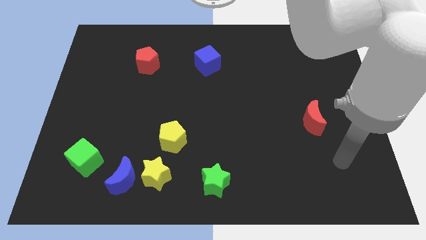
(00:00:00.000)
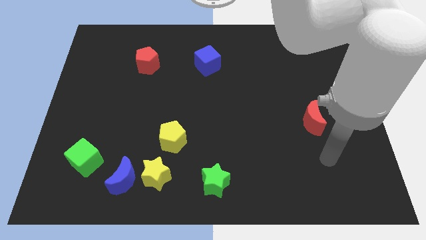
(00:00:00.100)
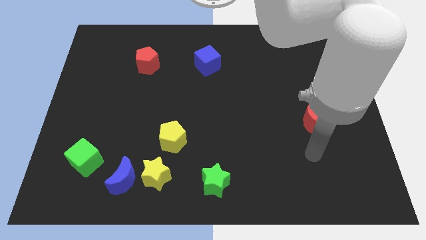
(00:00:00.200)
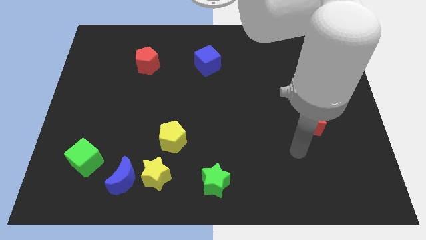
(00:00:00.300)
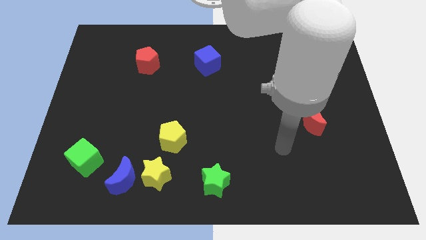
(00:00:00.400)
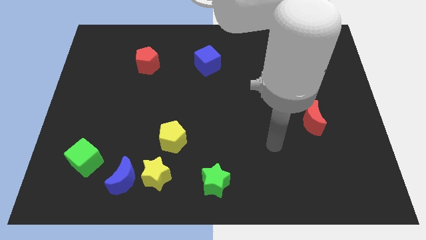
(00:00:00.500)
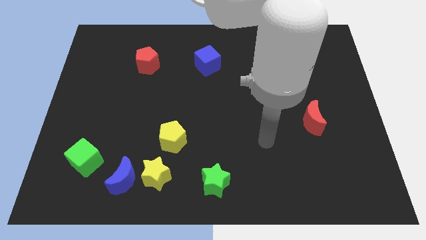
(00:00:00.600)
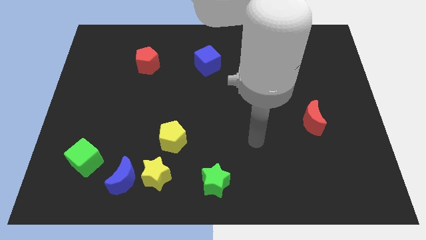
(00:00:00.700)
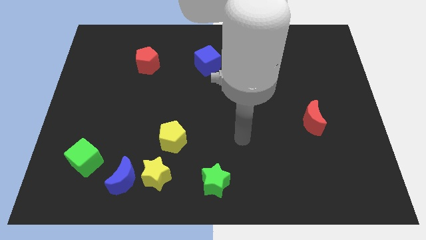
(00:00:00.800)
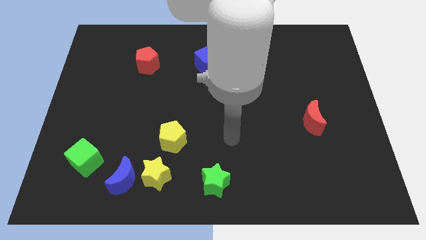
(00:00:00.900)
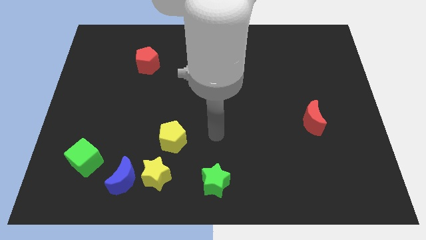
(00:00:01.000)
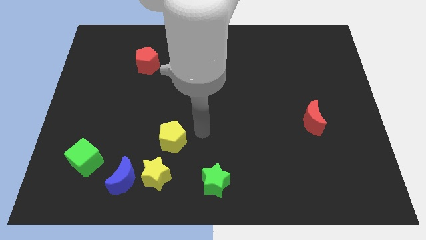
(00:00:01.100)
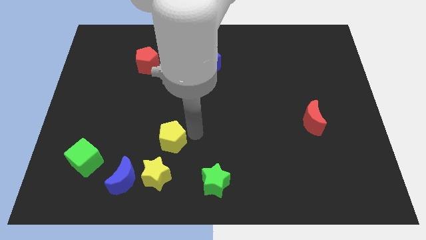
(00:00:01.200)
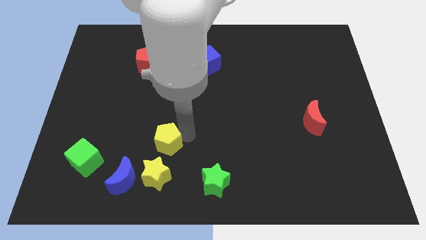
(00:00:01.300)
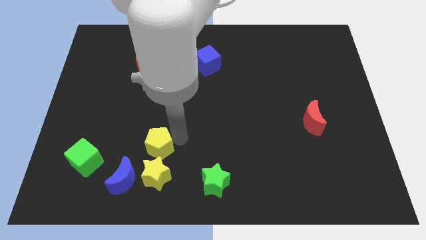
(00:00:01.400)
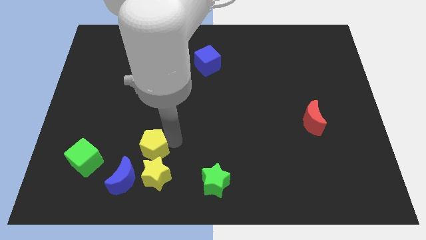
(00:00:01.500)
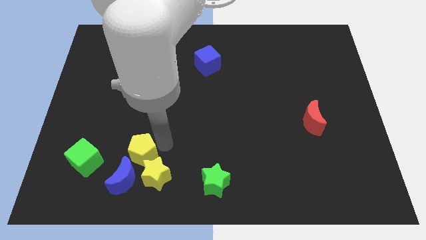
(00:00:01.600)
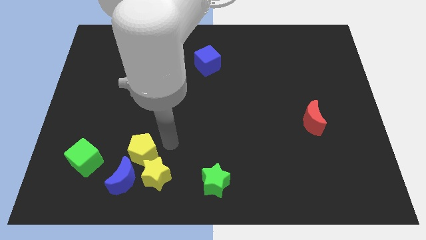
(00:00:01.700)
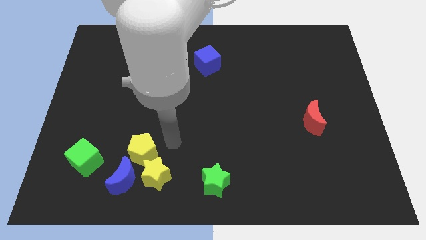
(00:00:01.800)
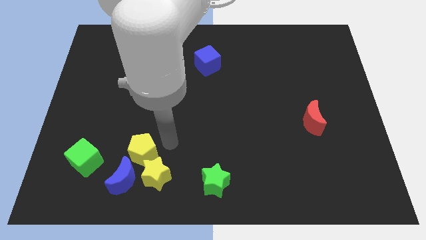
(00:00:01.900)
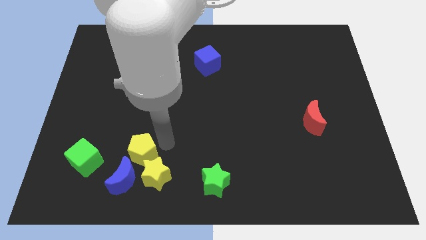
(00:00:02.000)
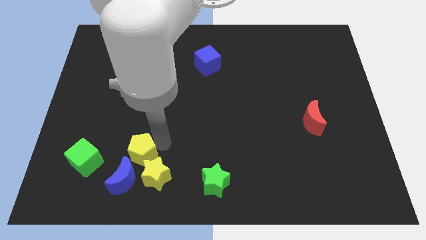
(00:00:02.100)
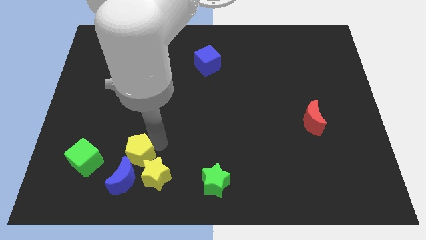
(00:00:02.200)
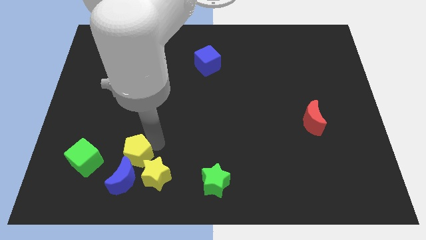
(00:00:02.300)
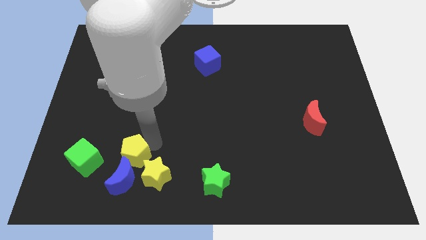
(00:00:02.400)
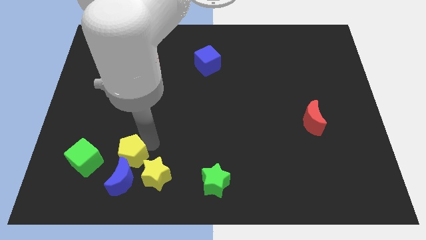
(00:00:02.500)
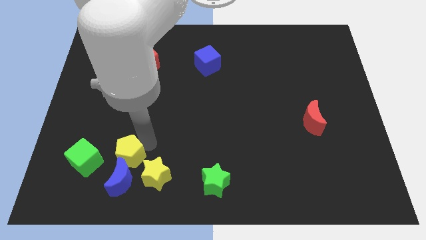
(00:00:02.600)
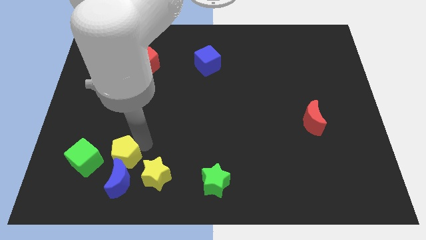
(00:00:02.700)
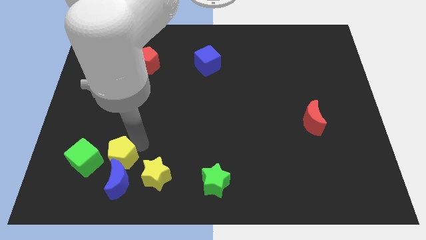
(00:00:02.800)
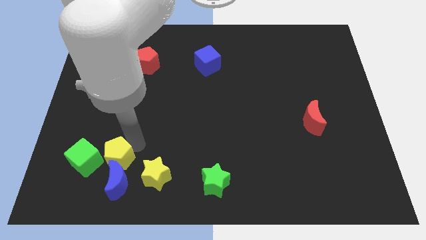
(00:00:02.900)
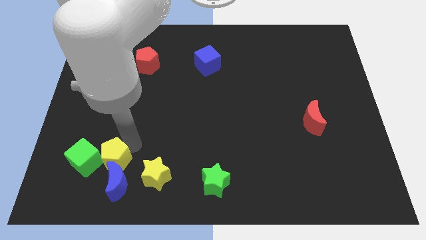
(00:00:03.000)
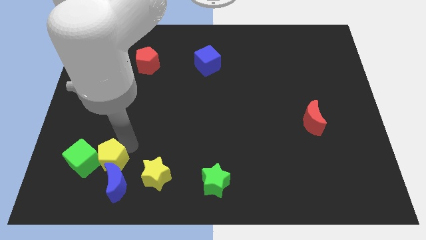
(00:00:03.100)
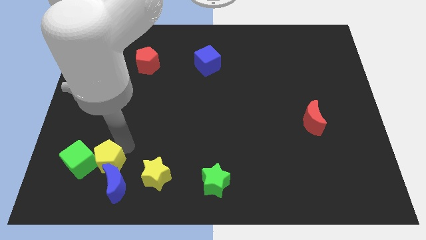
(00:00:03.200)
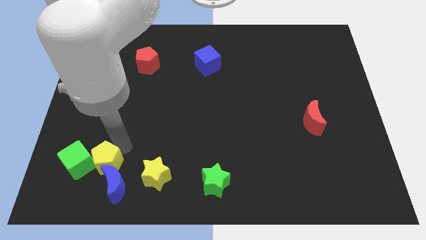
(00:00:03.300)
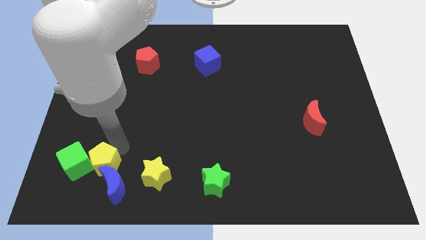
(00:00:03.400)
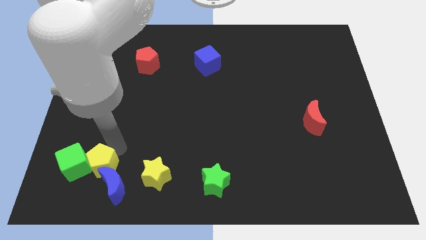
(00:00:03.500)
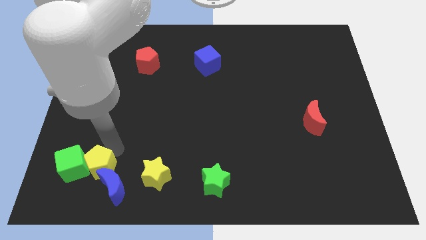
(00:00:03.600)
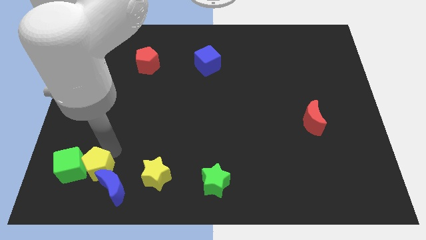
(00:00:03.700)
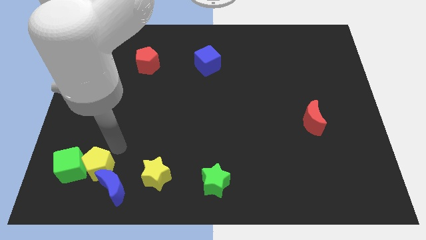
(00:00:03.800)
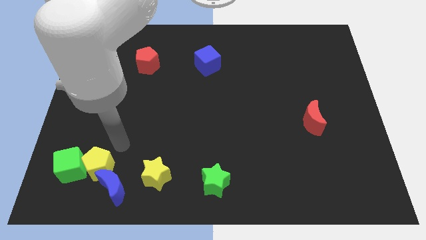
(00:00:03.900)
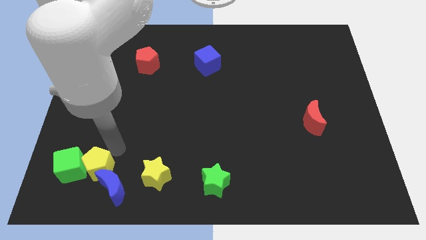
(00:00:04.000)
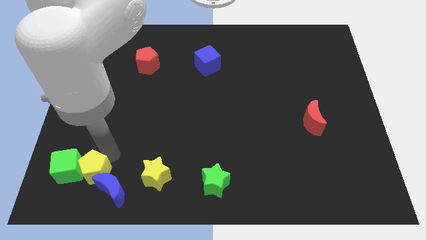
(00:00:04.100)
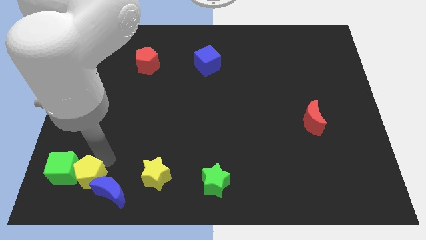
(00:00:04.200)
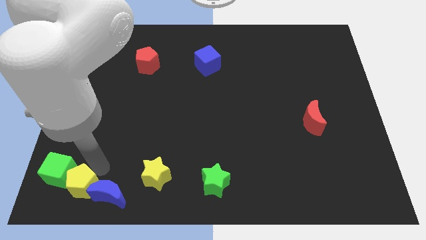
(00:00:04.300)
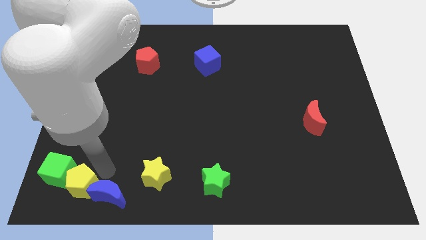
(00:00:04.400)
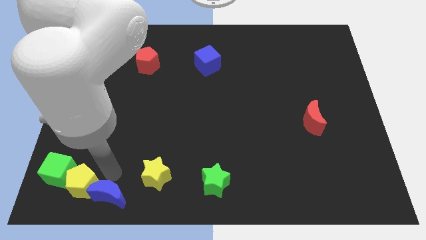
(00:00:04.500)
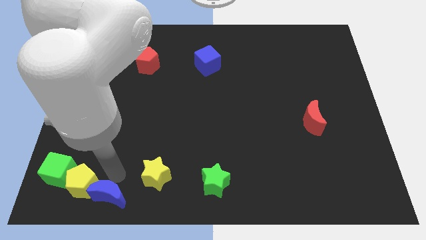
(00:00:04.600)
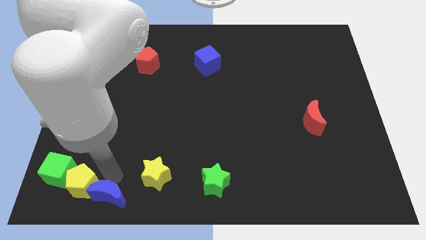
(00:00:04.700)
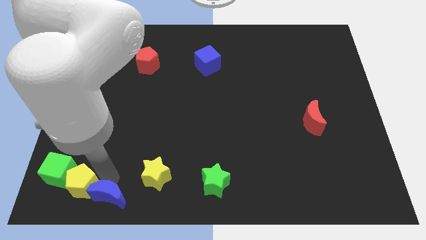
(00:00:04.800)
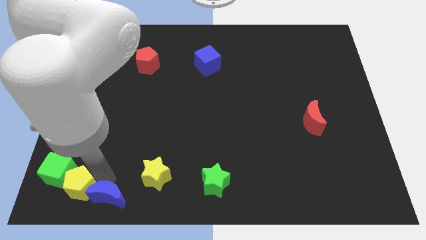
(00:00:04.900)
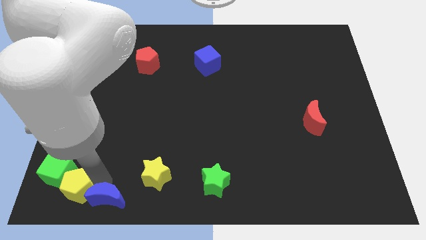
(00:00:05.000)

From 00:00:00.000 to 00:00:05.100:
push the yellow pentagon to the lower left corner

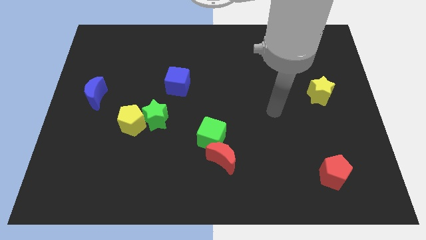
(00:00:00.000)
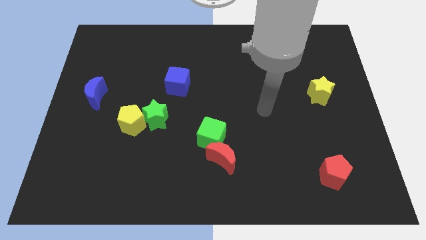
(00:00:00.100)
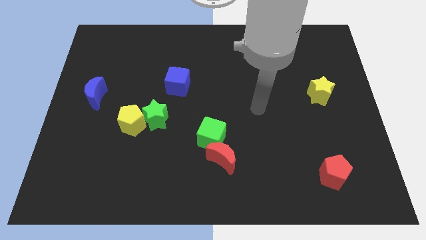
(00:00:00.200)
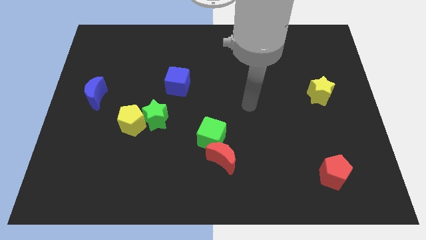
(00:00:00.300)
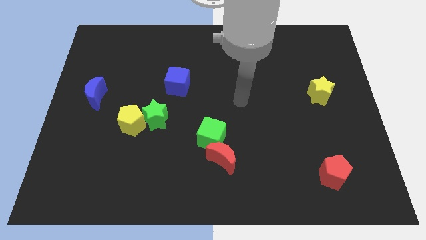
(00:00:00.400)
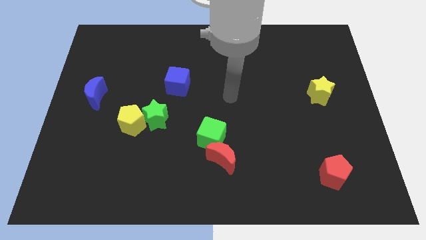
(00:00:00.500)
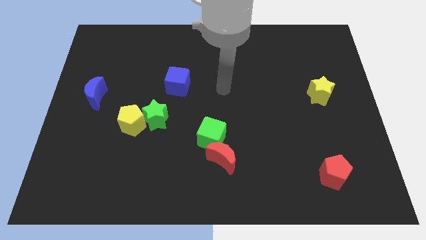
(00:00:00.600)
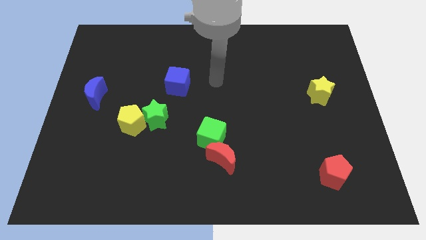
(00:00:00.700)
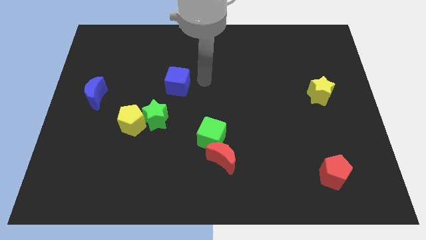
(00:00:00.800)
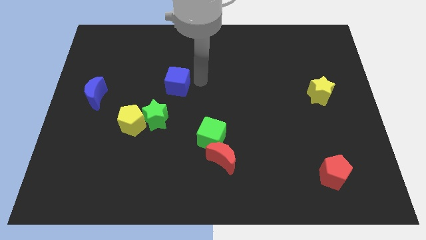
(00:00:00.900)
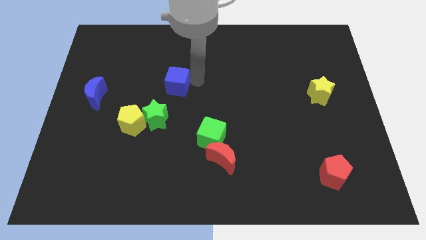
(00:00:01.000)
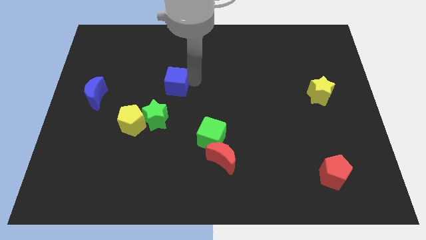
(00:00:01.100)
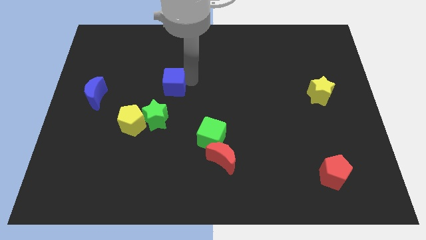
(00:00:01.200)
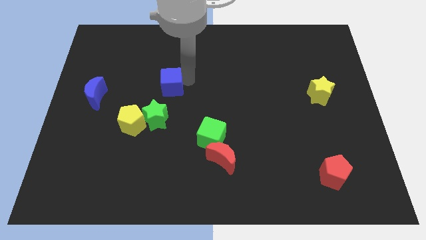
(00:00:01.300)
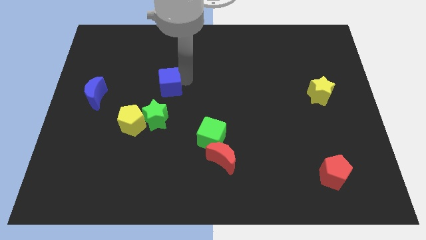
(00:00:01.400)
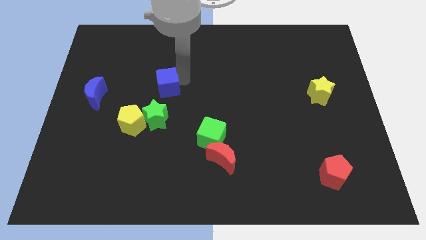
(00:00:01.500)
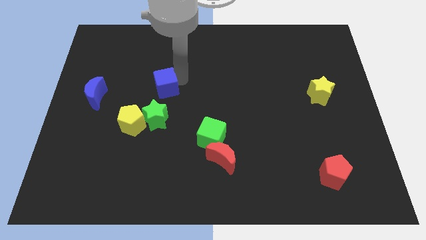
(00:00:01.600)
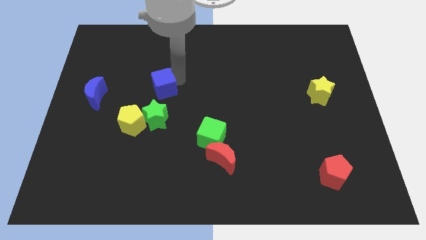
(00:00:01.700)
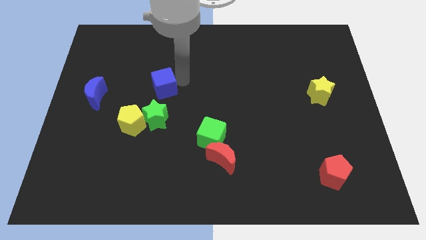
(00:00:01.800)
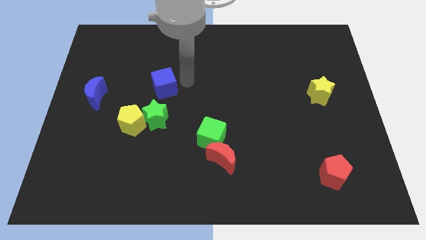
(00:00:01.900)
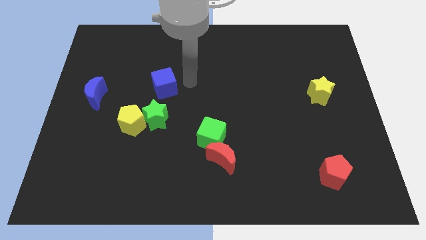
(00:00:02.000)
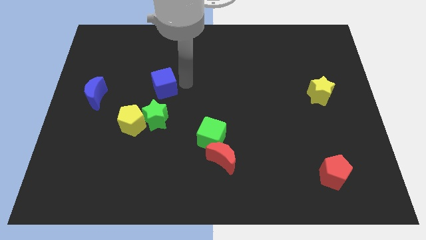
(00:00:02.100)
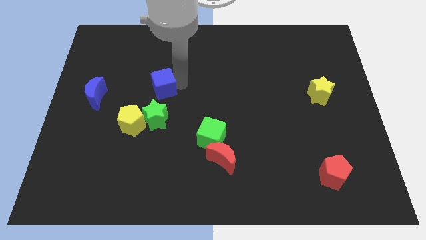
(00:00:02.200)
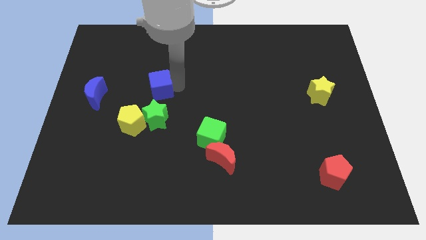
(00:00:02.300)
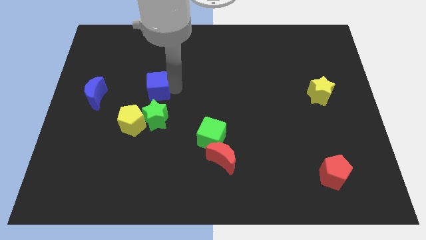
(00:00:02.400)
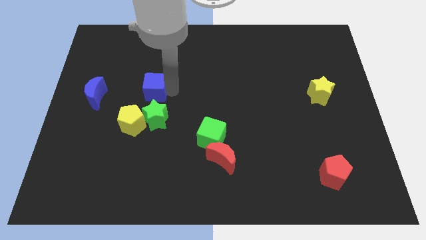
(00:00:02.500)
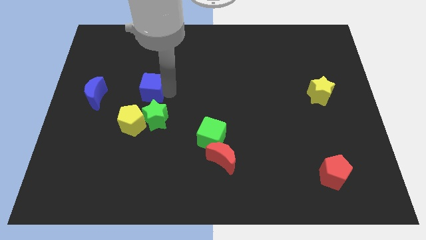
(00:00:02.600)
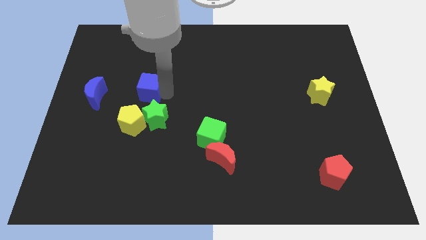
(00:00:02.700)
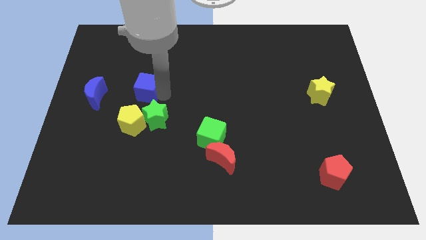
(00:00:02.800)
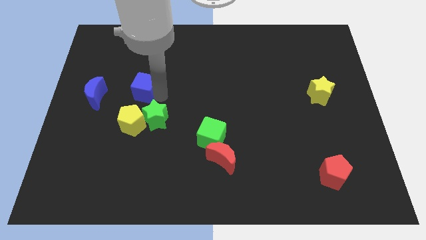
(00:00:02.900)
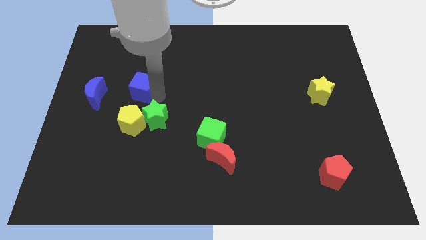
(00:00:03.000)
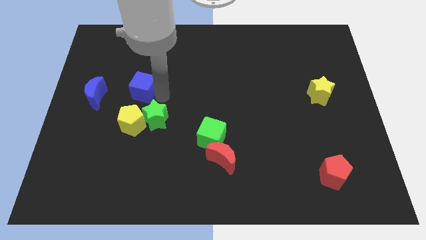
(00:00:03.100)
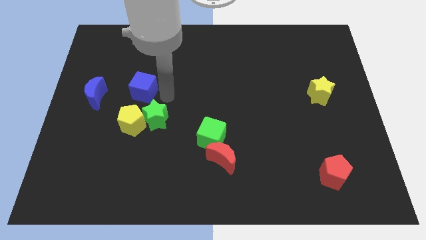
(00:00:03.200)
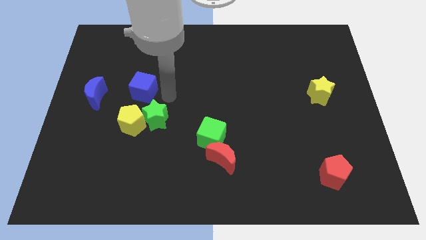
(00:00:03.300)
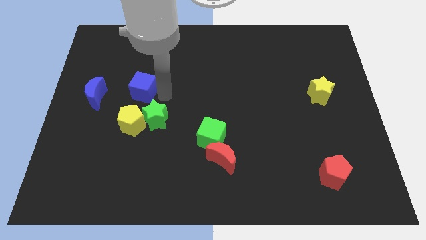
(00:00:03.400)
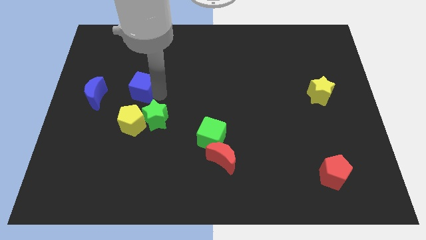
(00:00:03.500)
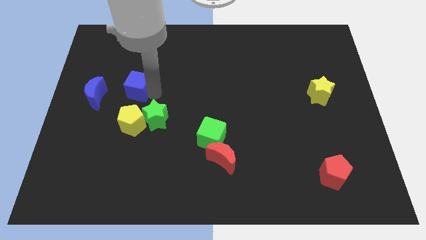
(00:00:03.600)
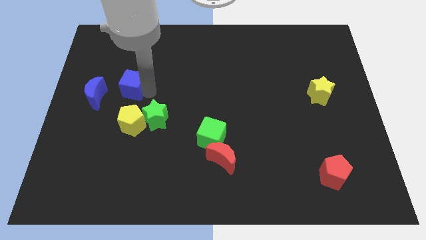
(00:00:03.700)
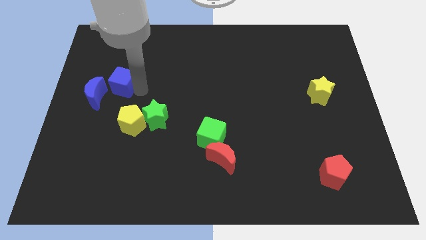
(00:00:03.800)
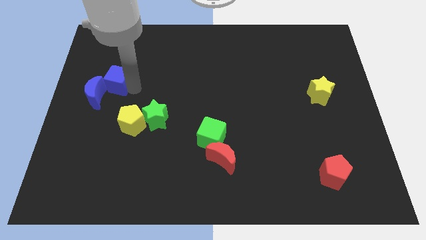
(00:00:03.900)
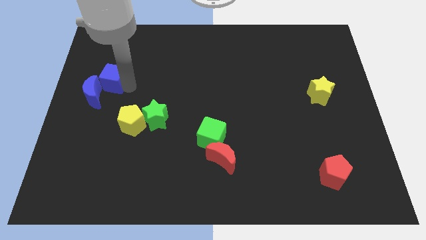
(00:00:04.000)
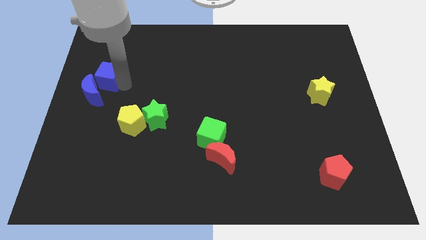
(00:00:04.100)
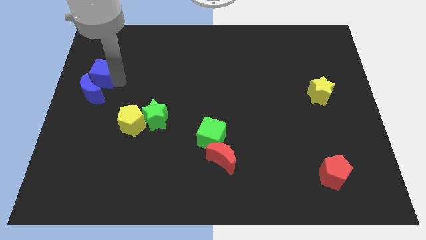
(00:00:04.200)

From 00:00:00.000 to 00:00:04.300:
push the blue cube to the left side
